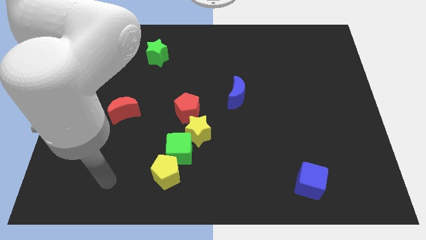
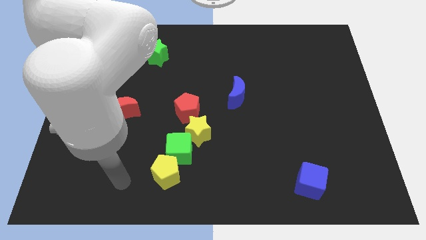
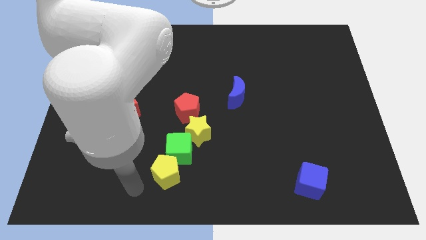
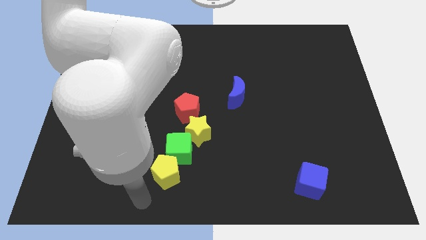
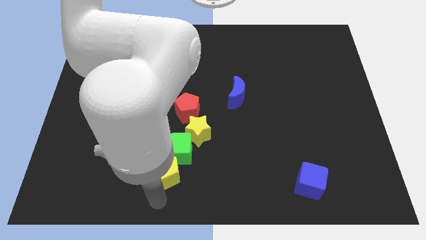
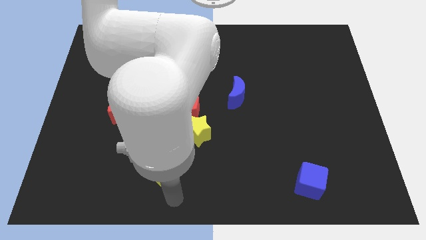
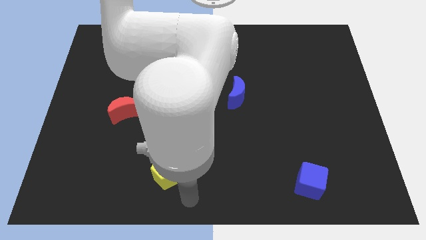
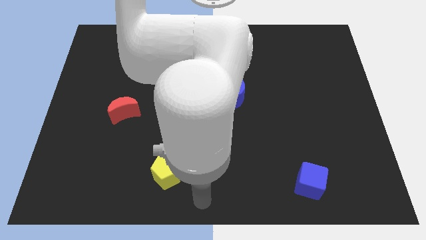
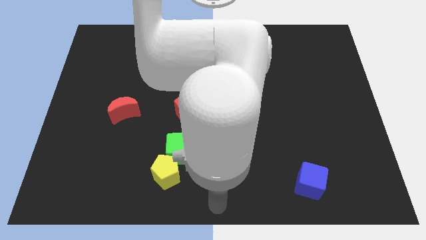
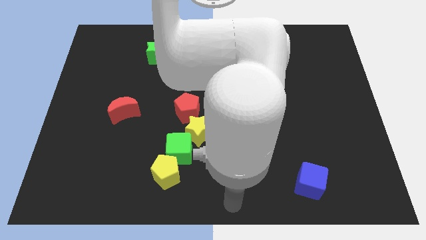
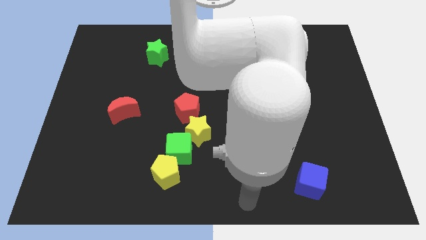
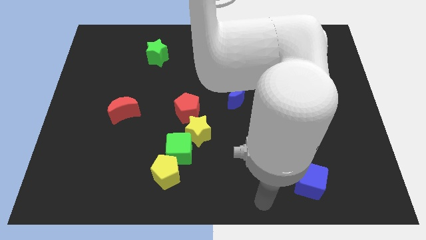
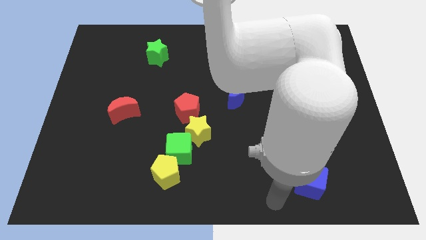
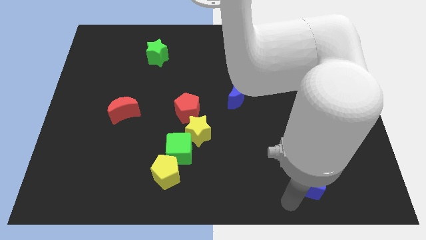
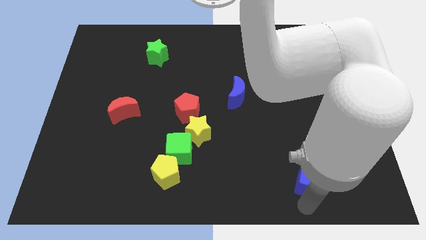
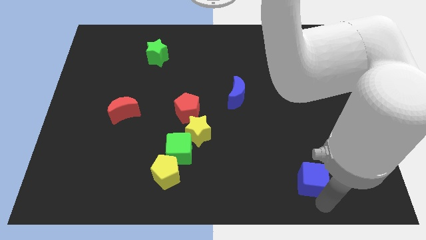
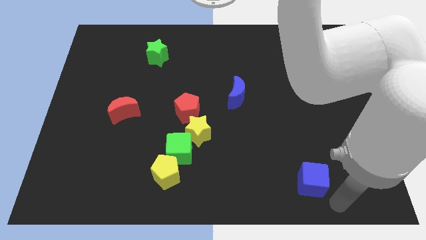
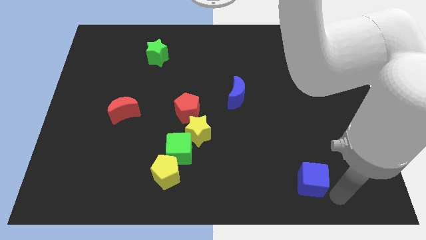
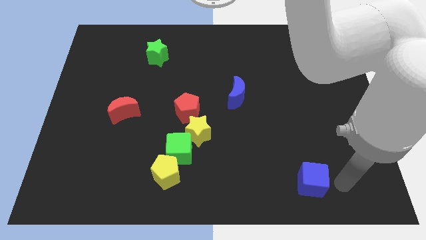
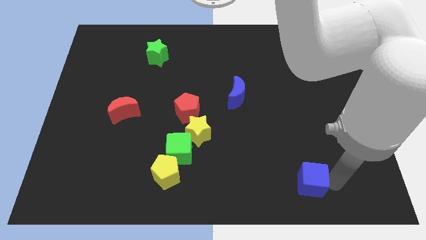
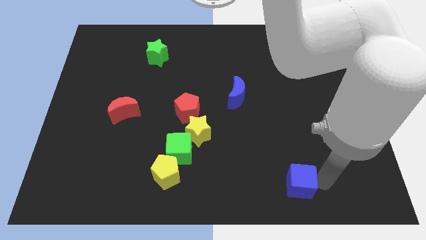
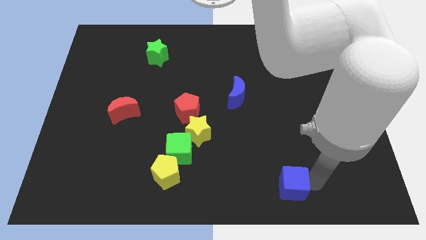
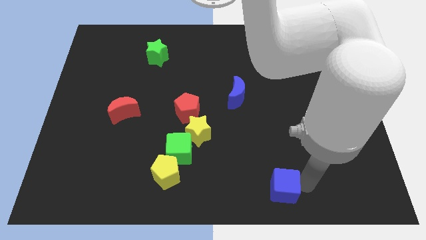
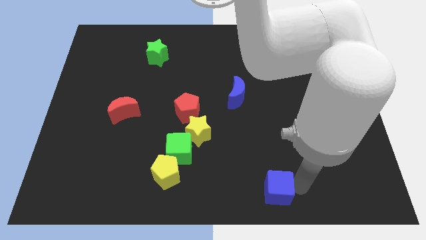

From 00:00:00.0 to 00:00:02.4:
push the blue cube somewhat to the left

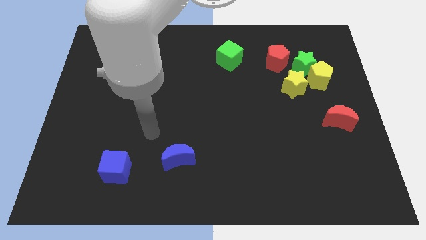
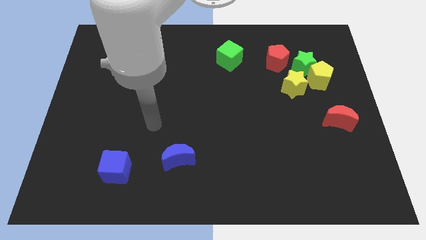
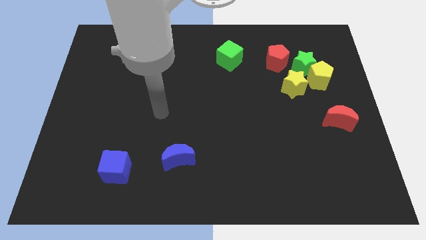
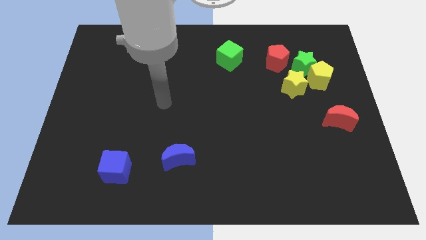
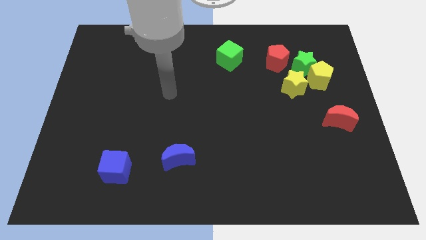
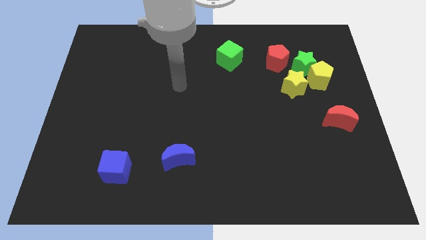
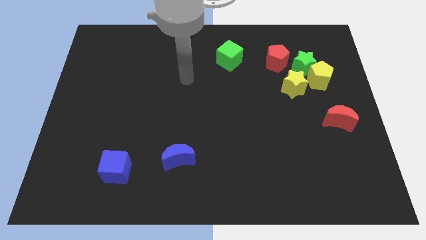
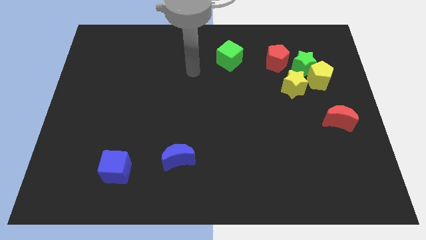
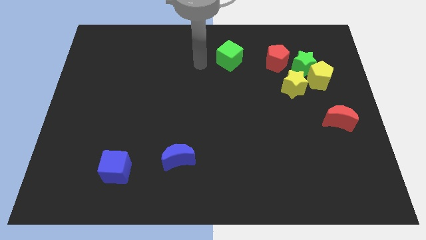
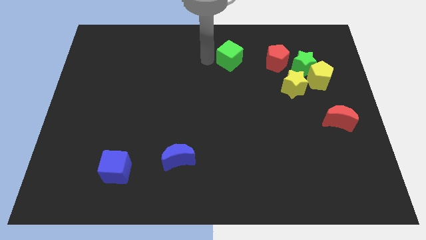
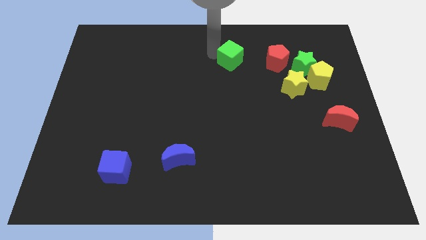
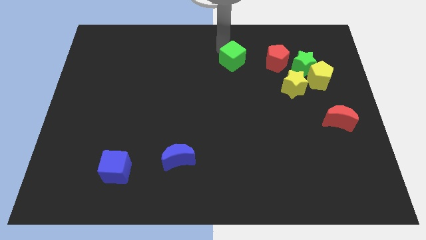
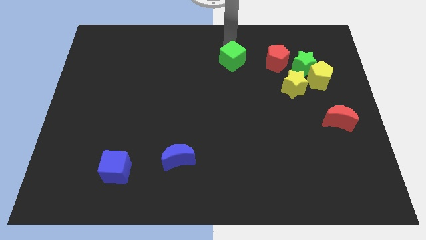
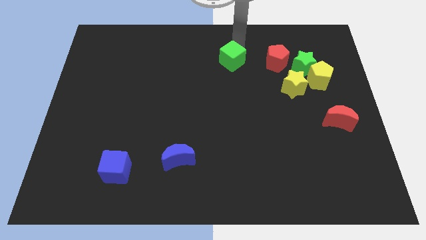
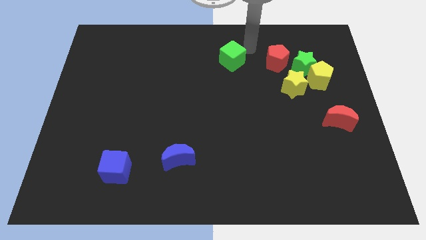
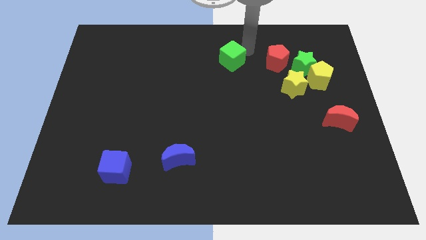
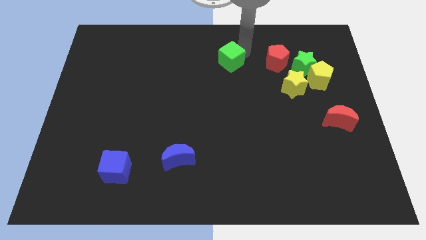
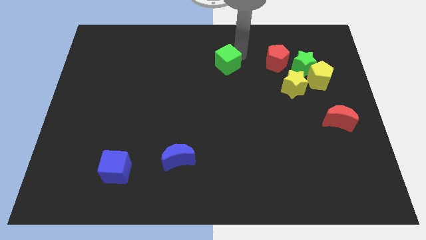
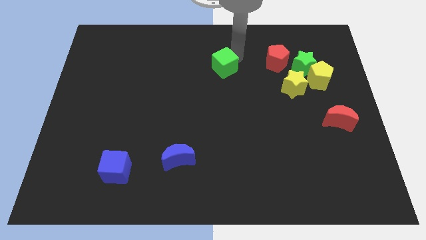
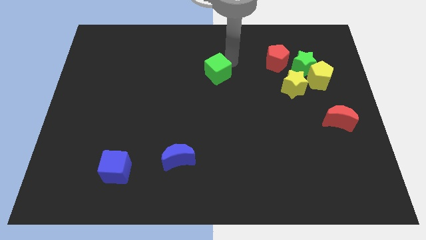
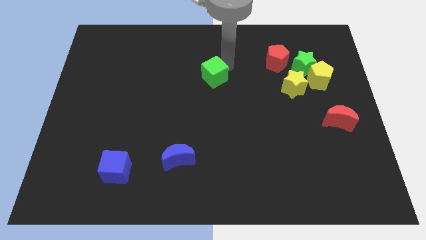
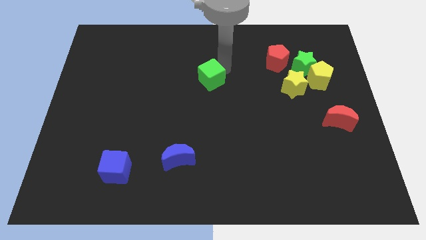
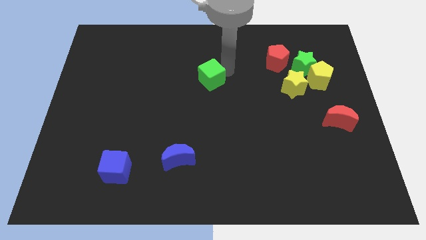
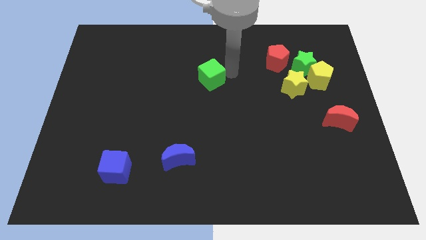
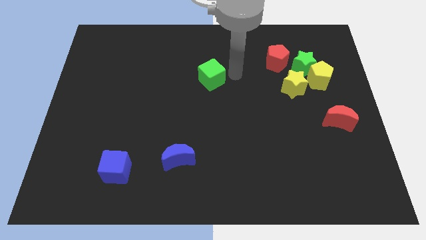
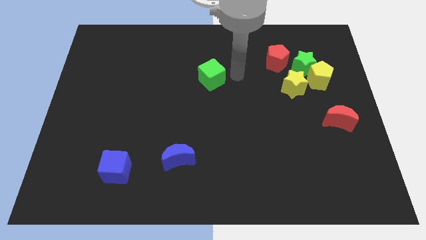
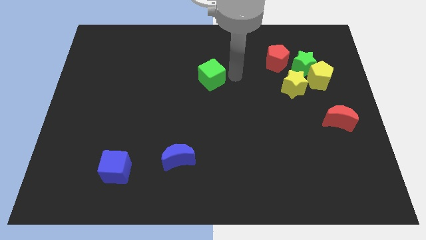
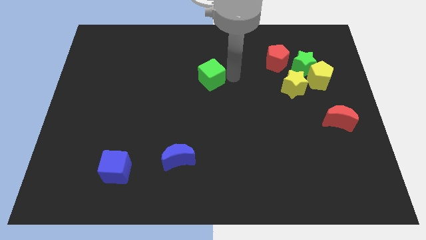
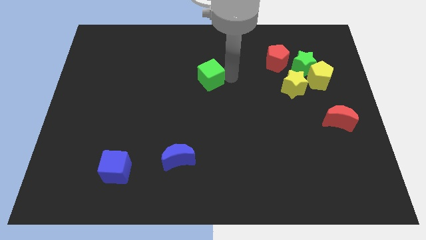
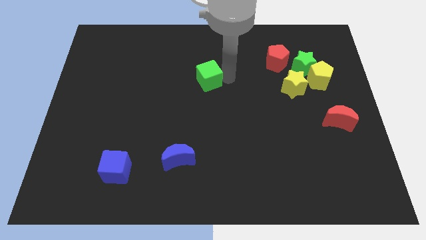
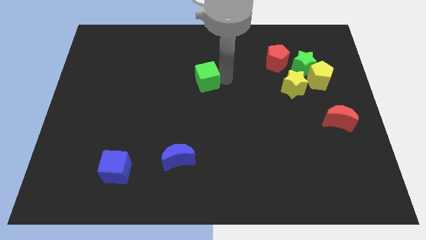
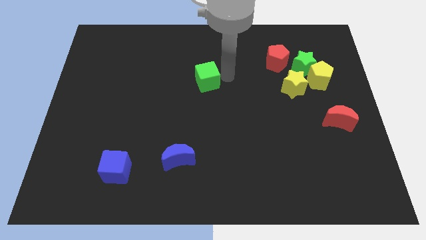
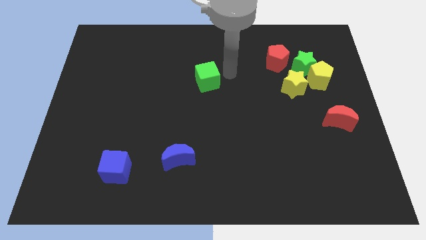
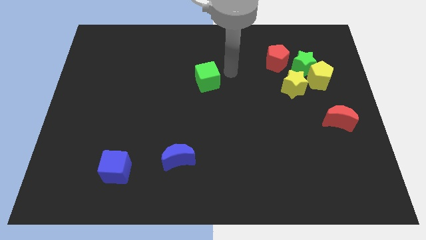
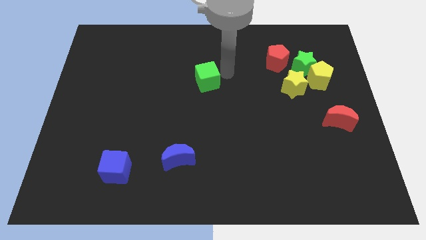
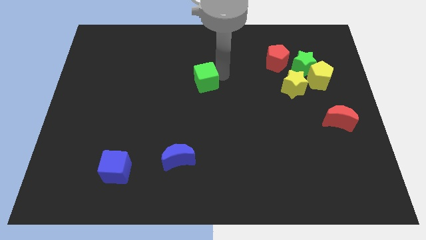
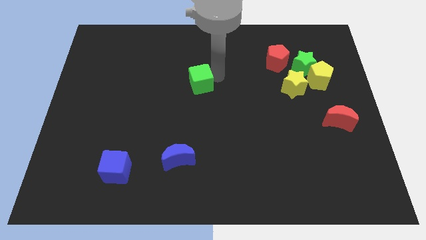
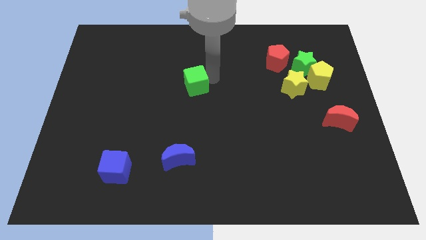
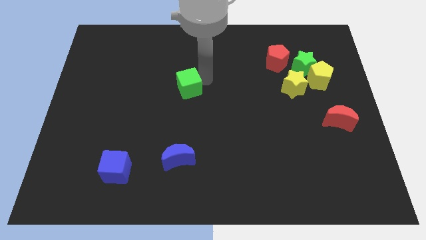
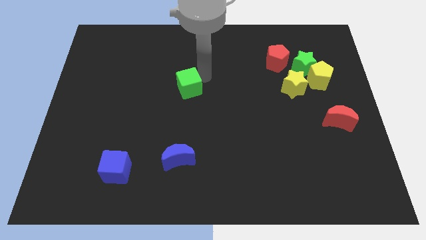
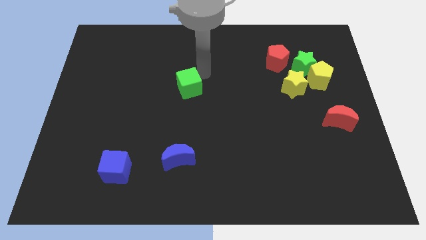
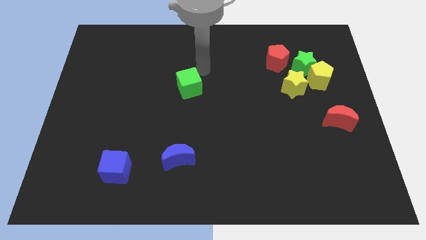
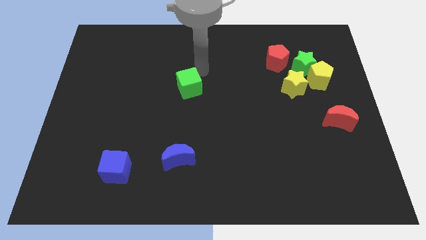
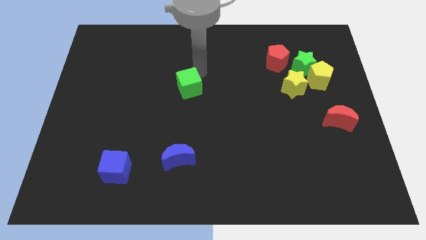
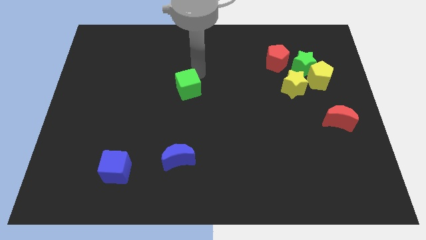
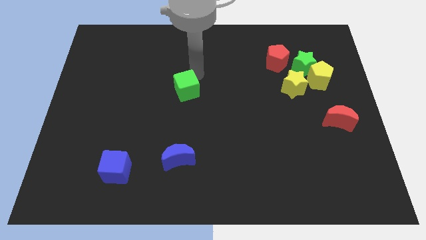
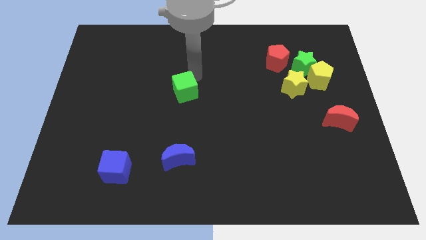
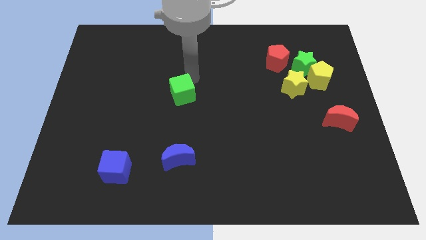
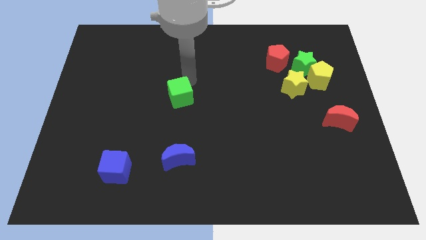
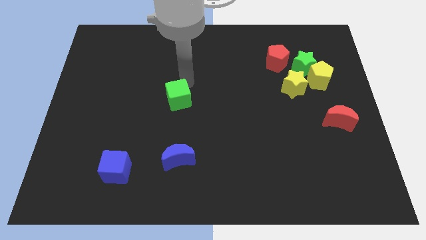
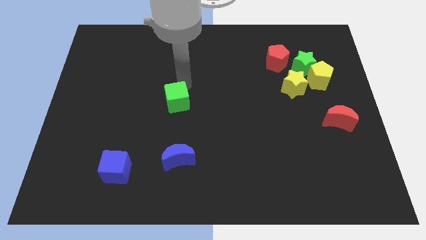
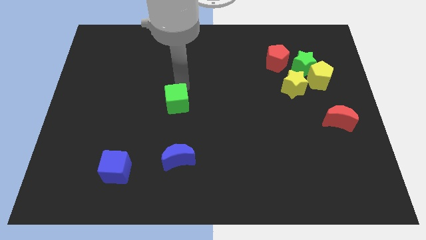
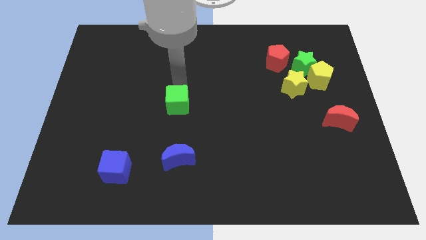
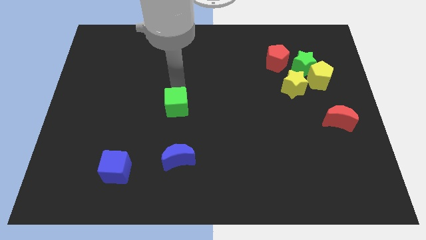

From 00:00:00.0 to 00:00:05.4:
move the green cube down and then to the left

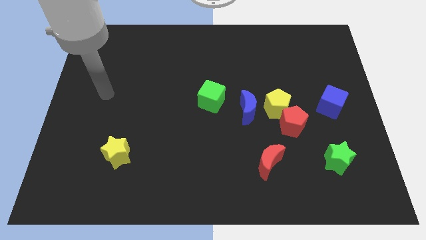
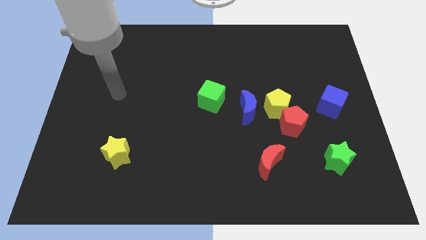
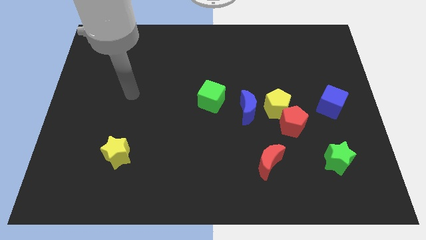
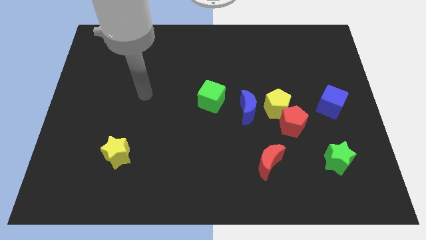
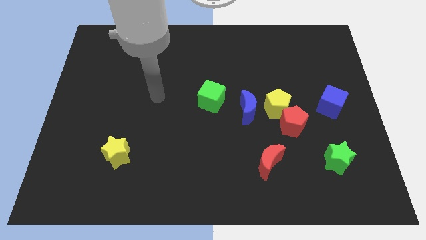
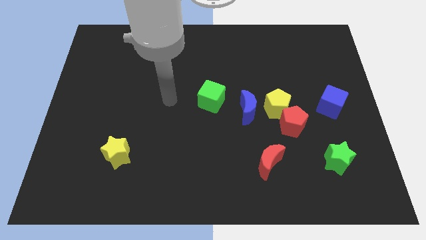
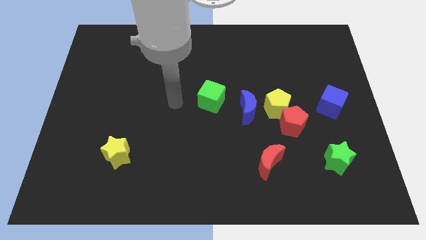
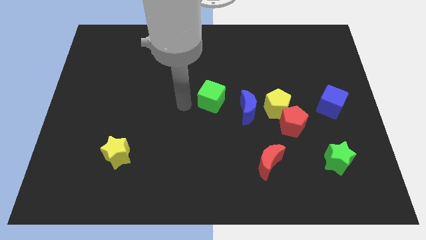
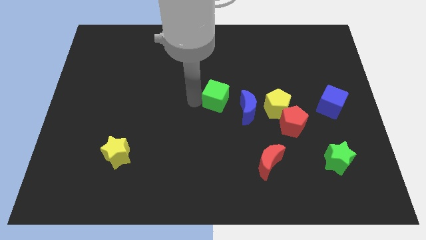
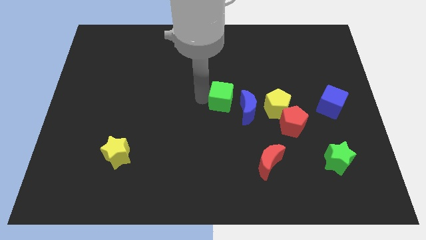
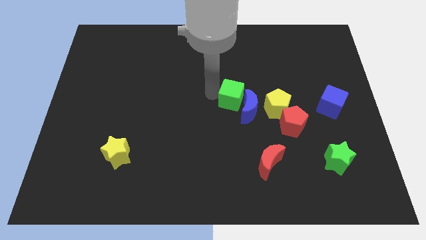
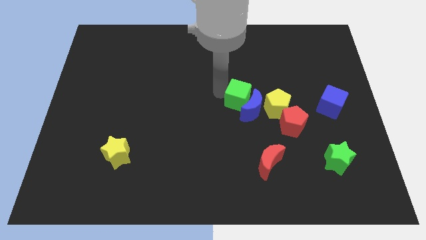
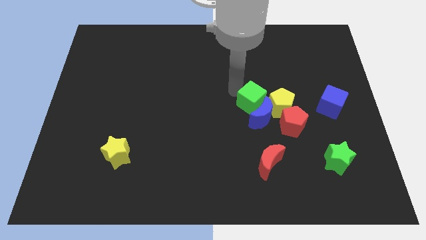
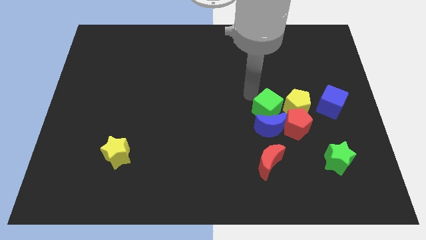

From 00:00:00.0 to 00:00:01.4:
slightly slide the blue moon downwards and then right
